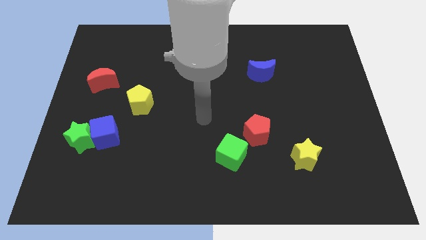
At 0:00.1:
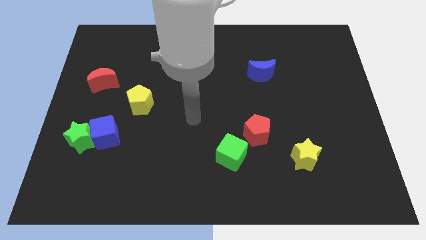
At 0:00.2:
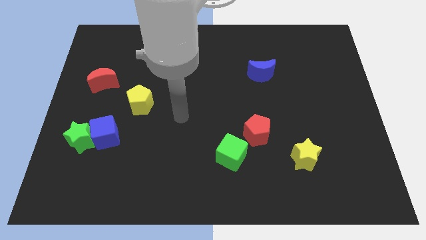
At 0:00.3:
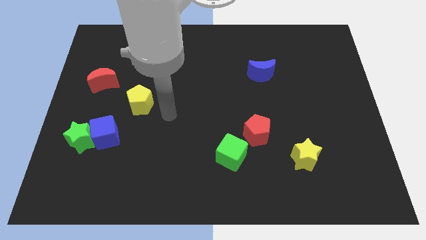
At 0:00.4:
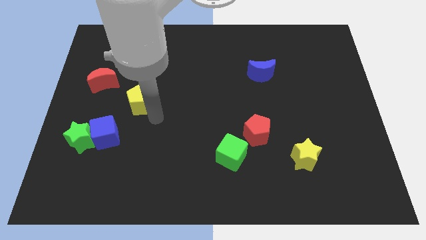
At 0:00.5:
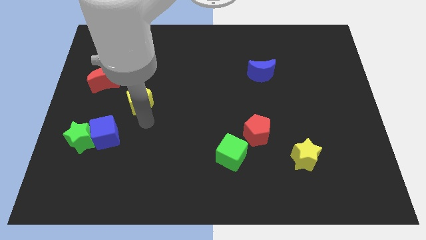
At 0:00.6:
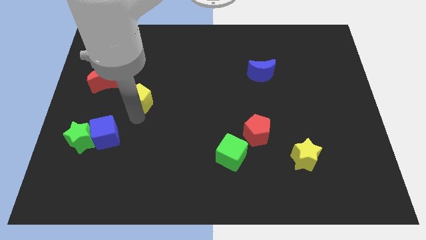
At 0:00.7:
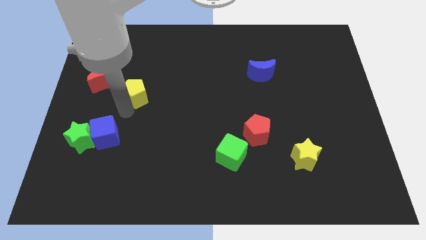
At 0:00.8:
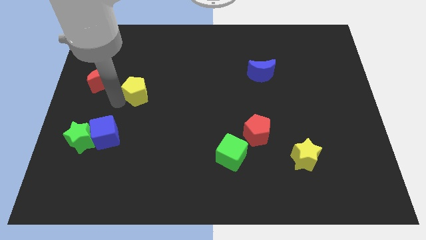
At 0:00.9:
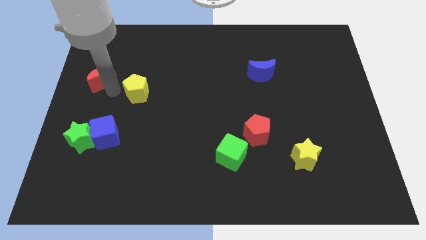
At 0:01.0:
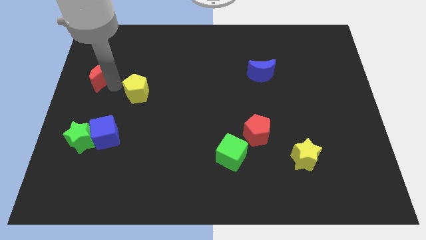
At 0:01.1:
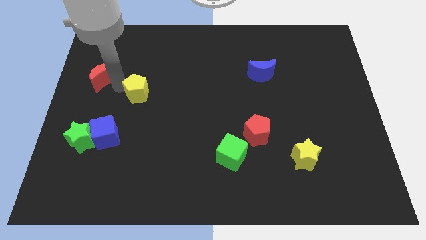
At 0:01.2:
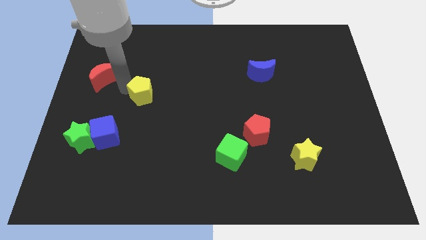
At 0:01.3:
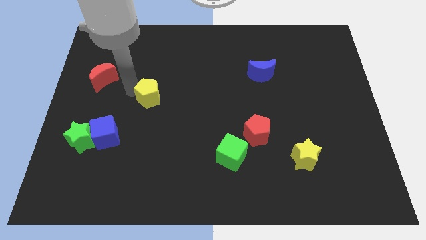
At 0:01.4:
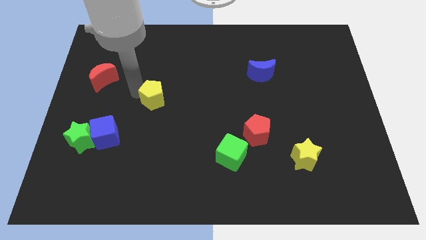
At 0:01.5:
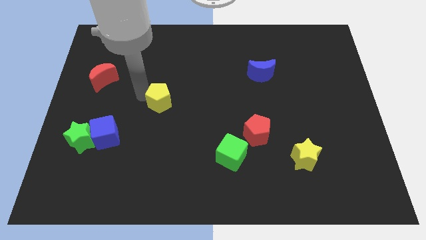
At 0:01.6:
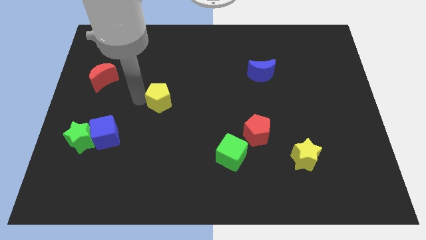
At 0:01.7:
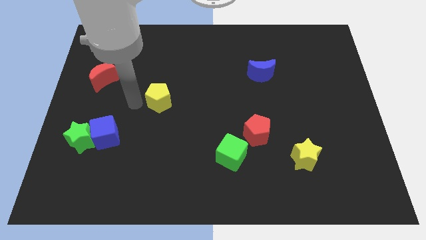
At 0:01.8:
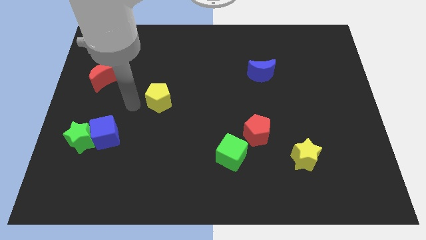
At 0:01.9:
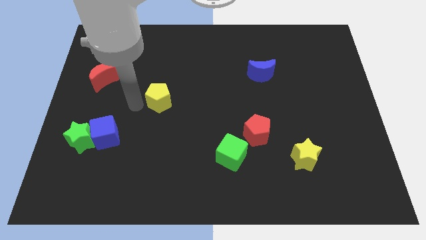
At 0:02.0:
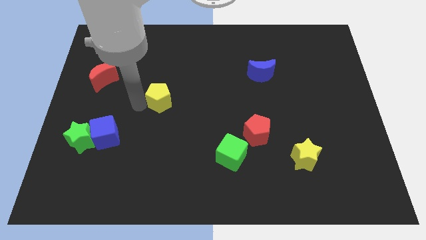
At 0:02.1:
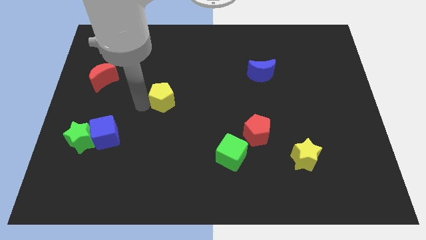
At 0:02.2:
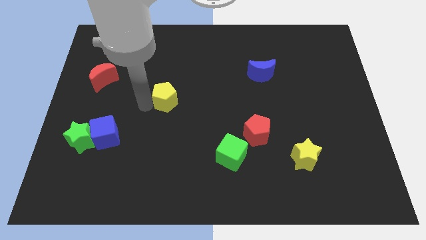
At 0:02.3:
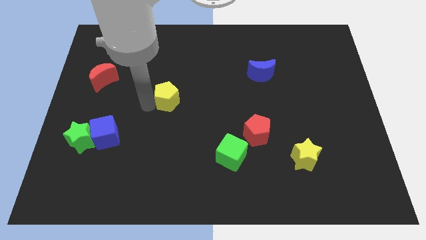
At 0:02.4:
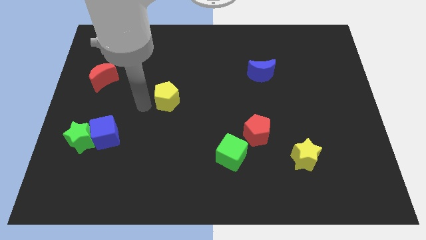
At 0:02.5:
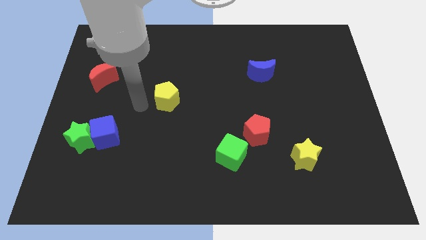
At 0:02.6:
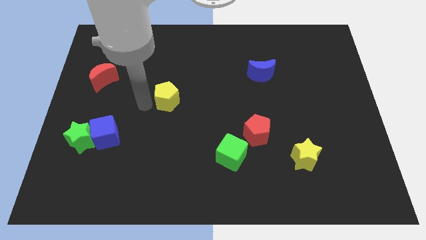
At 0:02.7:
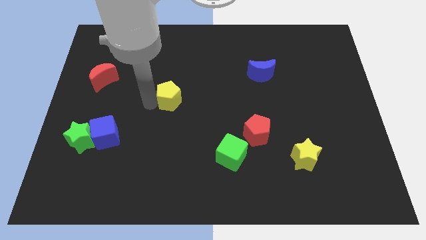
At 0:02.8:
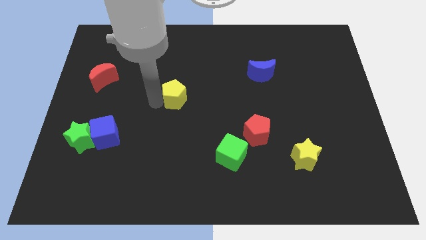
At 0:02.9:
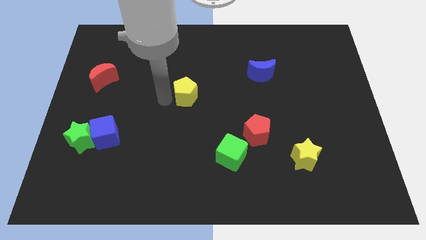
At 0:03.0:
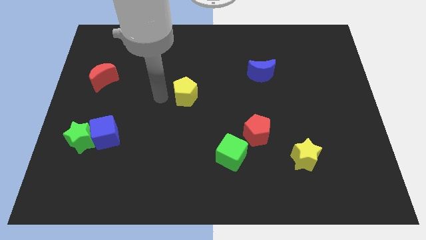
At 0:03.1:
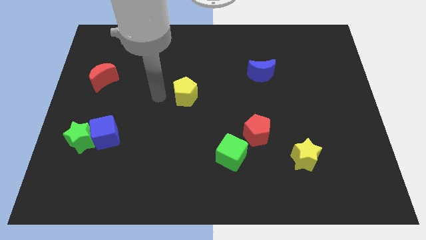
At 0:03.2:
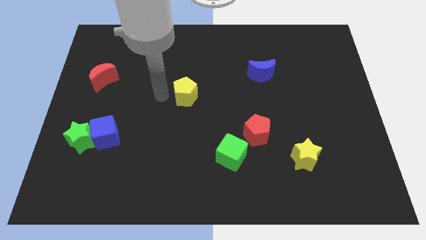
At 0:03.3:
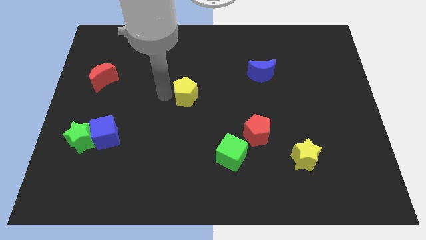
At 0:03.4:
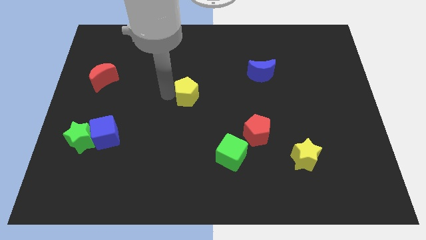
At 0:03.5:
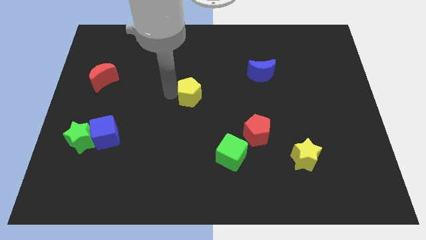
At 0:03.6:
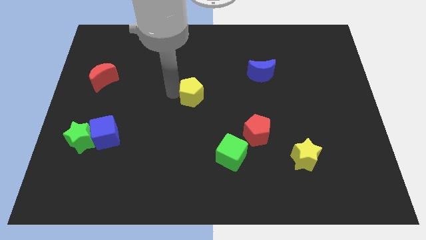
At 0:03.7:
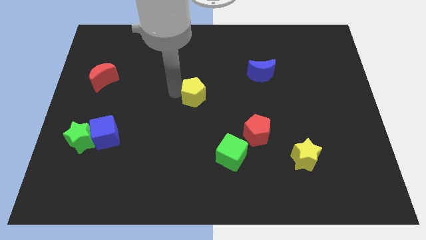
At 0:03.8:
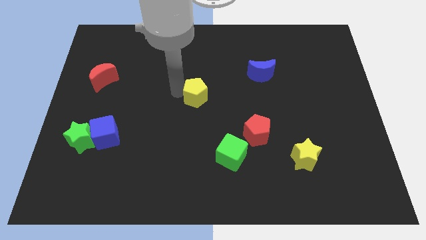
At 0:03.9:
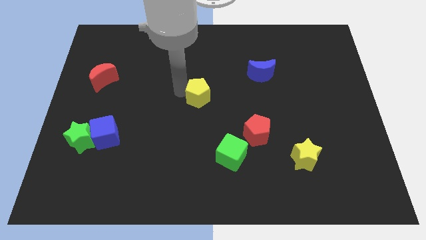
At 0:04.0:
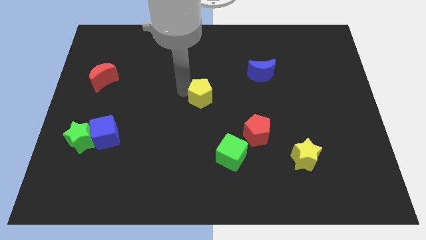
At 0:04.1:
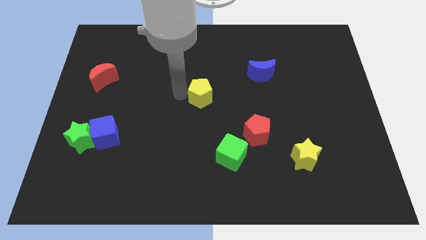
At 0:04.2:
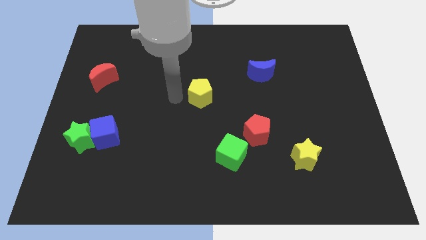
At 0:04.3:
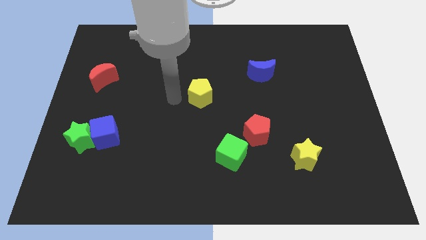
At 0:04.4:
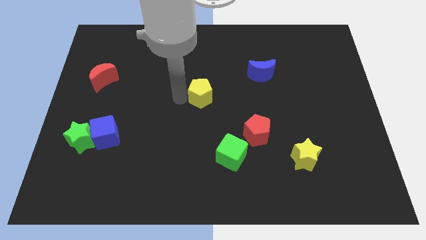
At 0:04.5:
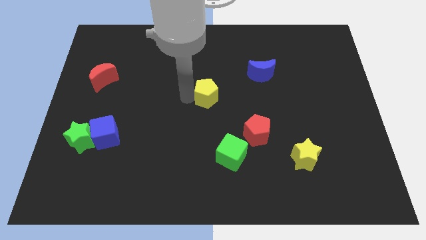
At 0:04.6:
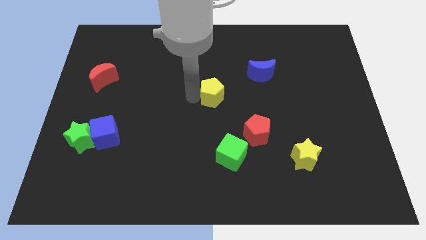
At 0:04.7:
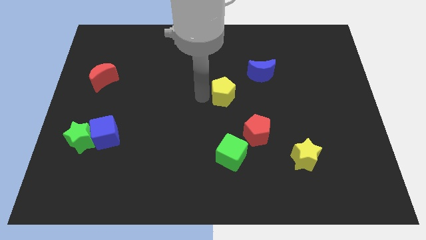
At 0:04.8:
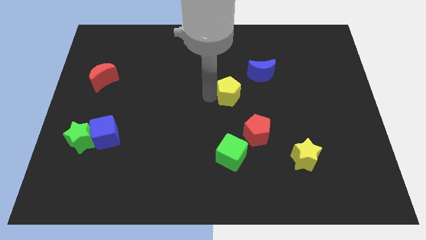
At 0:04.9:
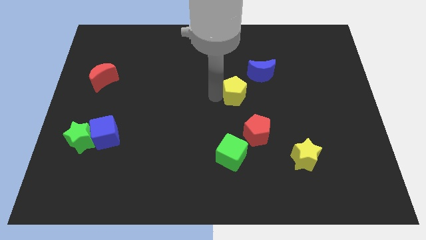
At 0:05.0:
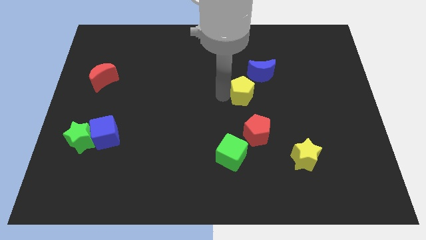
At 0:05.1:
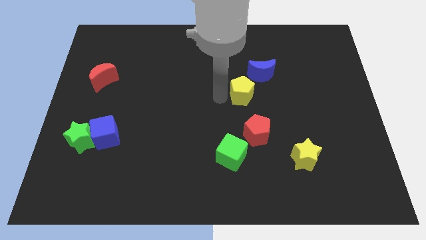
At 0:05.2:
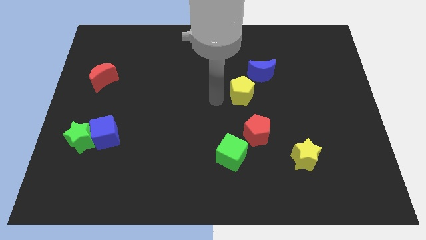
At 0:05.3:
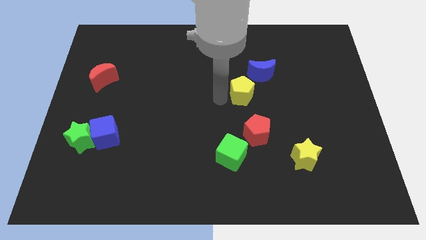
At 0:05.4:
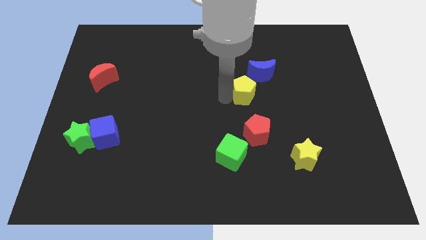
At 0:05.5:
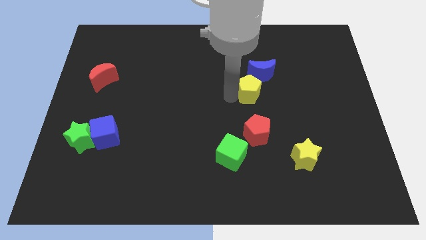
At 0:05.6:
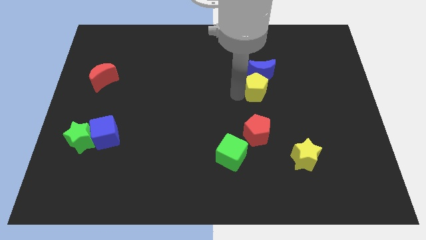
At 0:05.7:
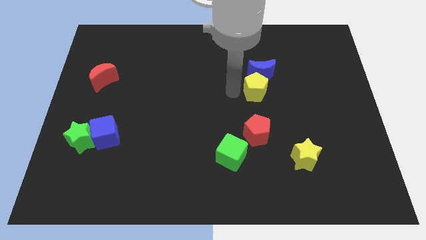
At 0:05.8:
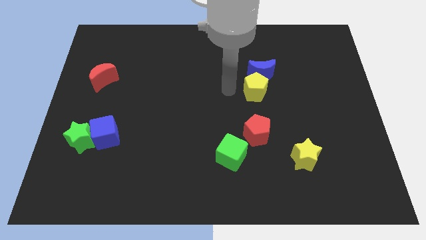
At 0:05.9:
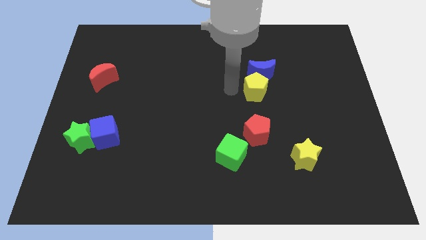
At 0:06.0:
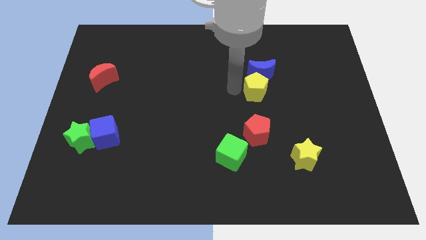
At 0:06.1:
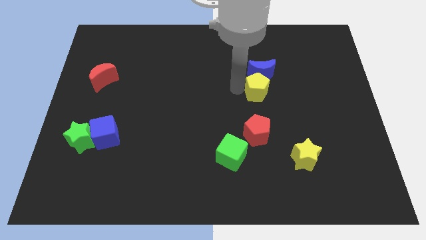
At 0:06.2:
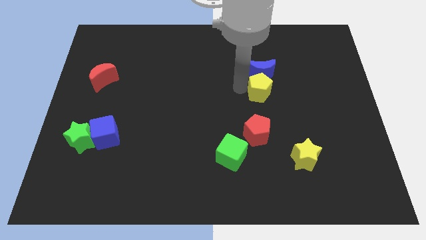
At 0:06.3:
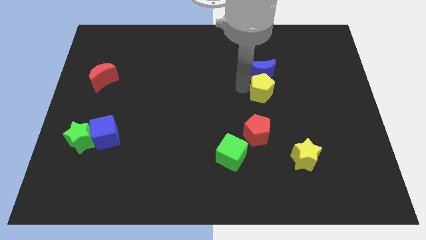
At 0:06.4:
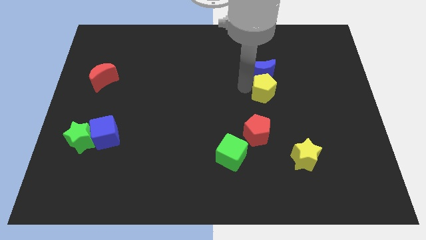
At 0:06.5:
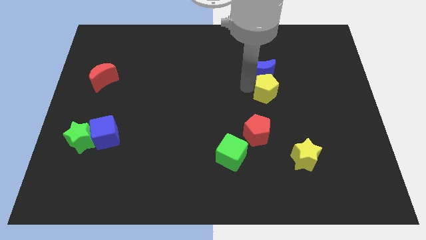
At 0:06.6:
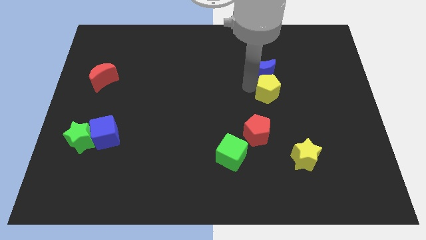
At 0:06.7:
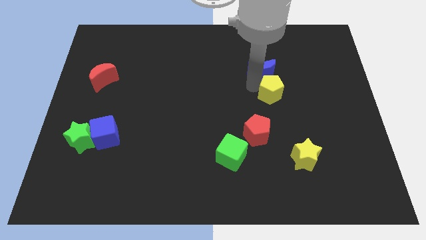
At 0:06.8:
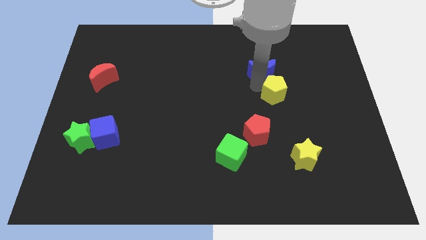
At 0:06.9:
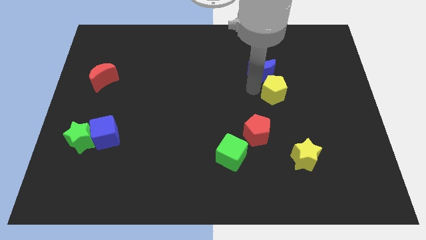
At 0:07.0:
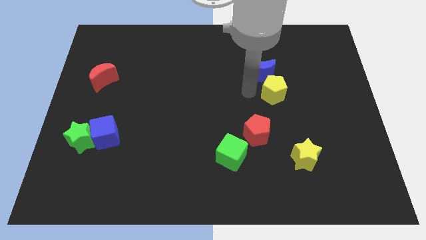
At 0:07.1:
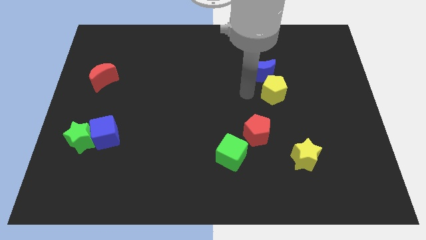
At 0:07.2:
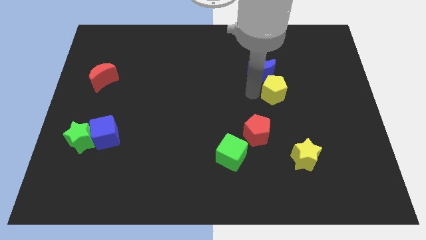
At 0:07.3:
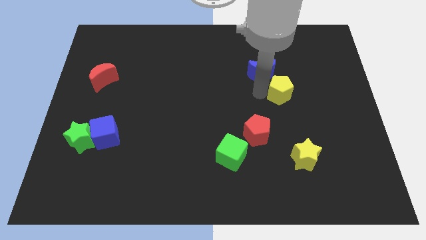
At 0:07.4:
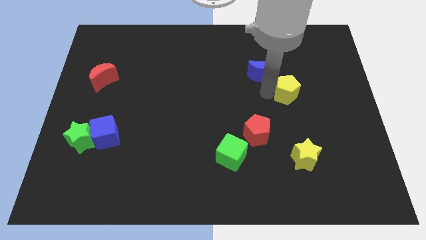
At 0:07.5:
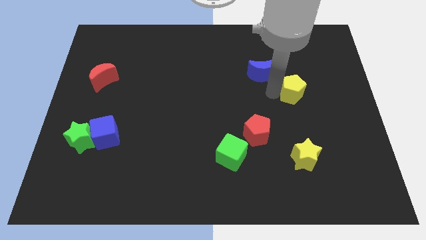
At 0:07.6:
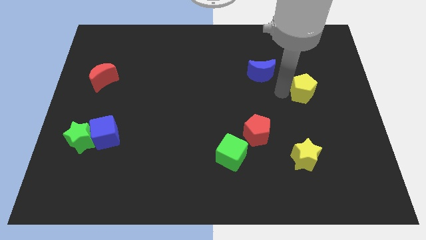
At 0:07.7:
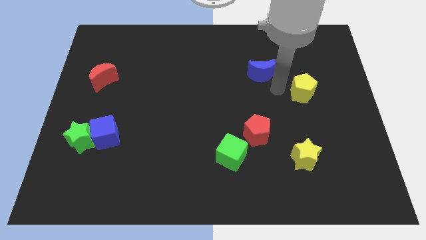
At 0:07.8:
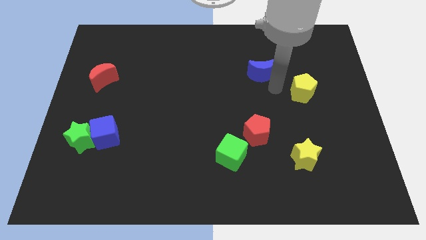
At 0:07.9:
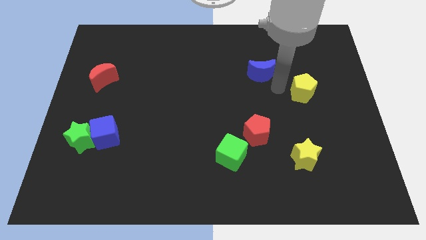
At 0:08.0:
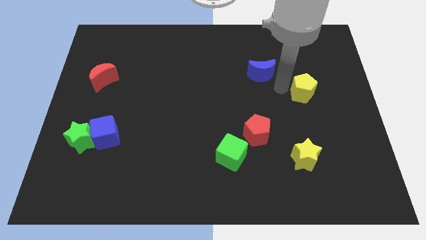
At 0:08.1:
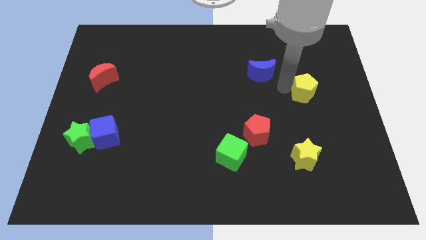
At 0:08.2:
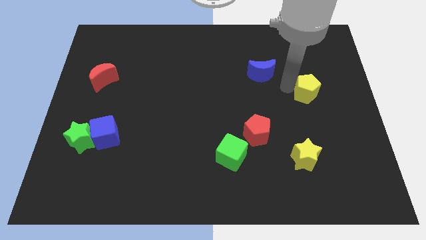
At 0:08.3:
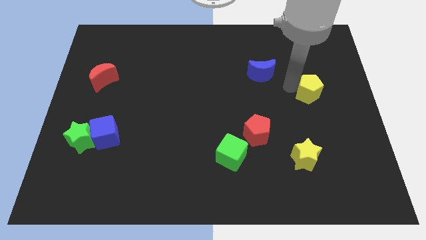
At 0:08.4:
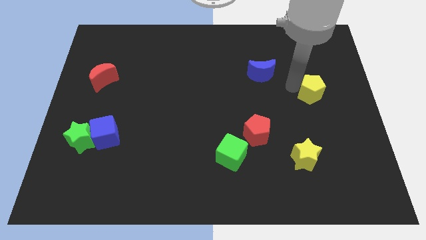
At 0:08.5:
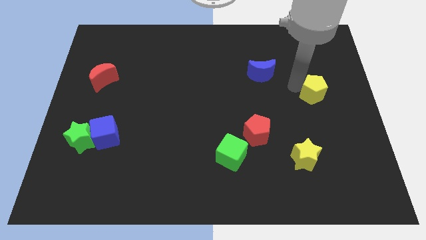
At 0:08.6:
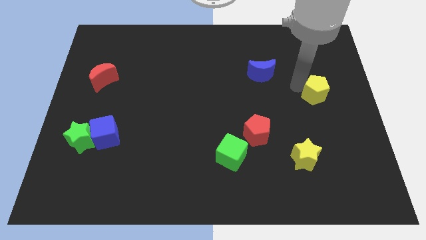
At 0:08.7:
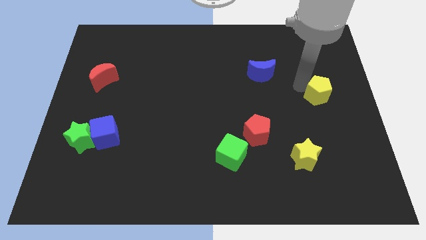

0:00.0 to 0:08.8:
put the yellow pentagon to the right side of the board
